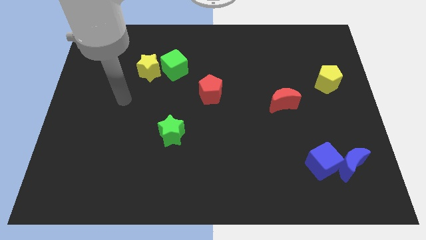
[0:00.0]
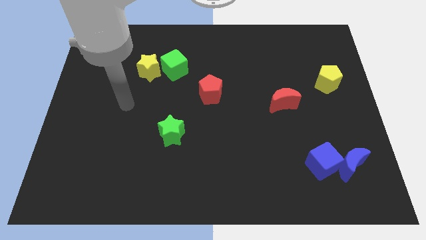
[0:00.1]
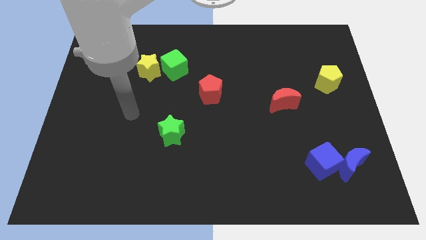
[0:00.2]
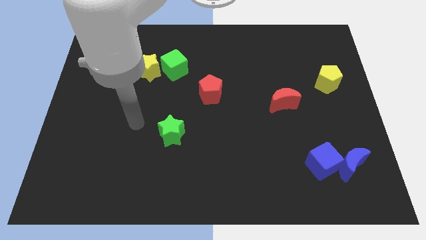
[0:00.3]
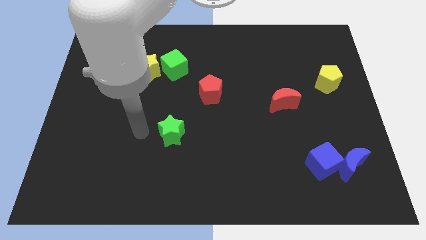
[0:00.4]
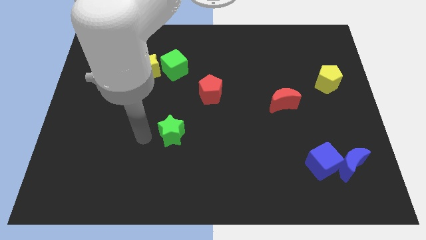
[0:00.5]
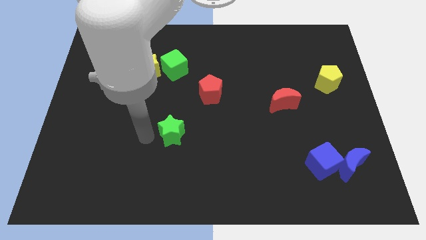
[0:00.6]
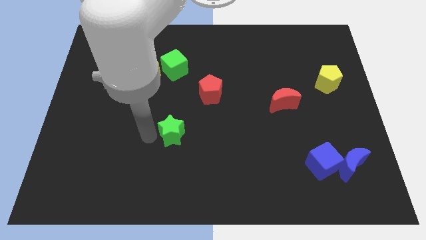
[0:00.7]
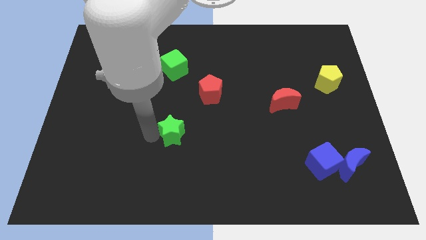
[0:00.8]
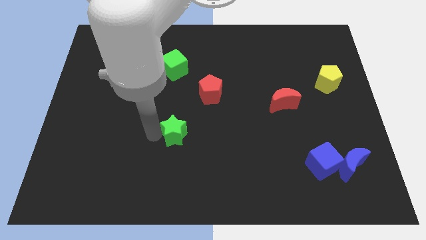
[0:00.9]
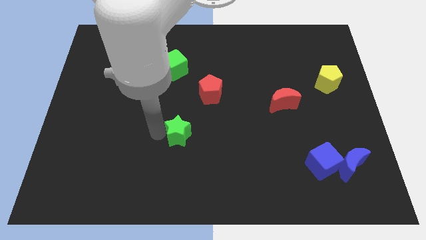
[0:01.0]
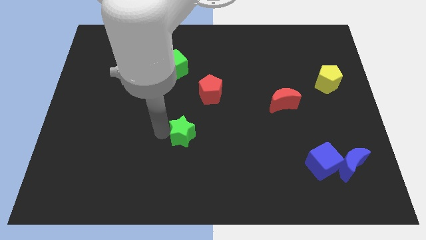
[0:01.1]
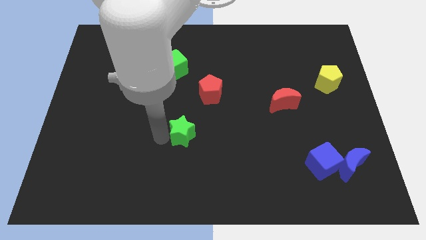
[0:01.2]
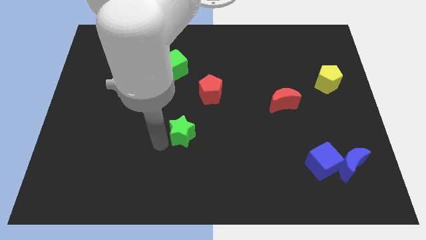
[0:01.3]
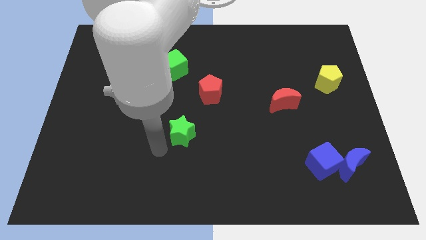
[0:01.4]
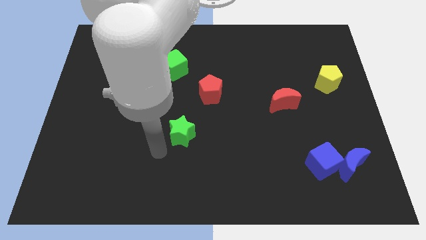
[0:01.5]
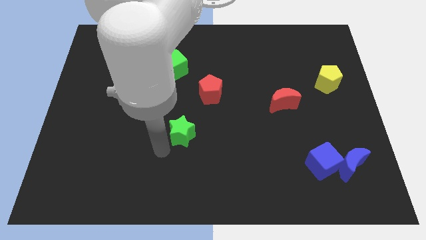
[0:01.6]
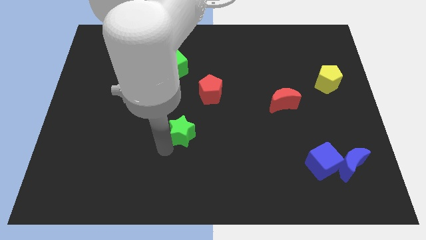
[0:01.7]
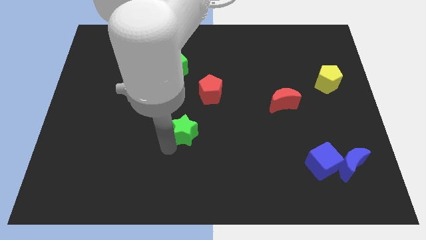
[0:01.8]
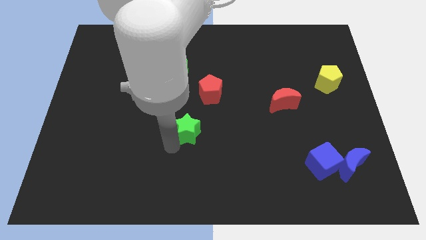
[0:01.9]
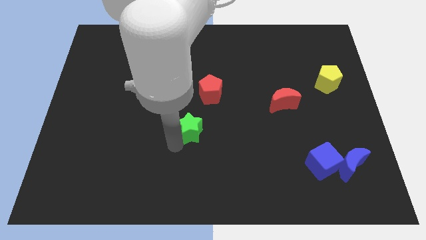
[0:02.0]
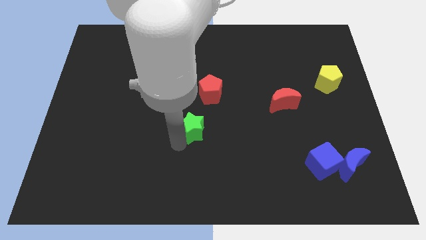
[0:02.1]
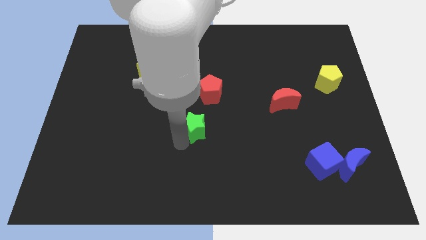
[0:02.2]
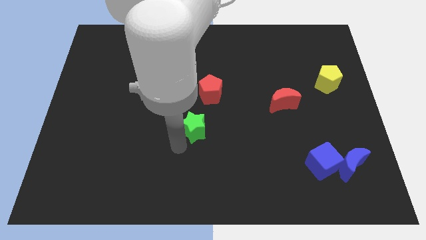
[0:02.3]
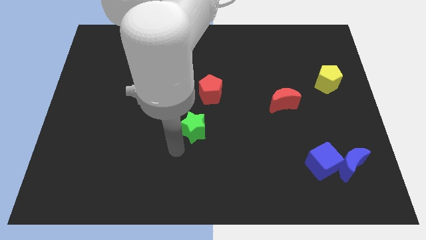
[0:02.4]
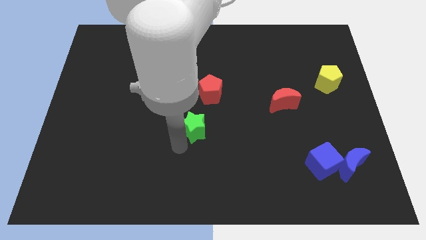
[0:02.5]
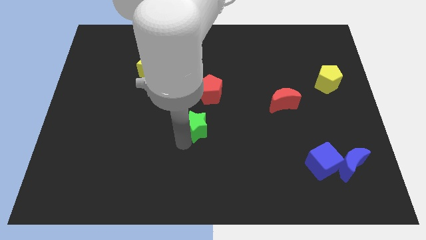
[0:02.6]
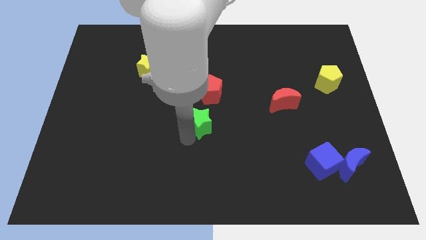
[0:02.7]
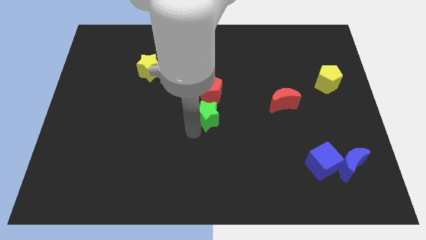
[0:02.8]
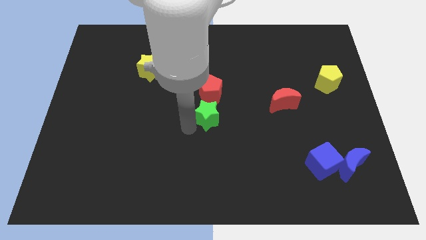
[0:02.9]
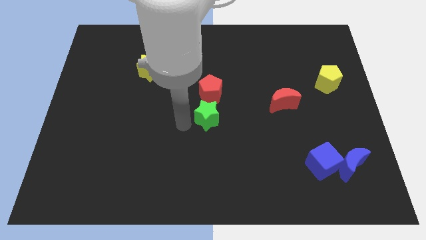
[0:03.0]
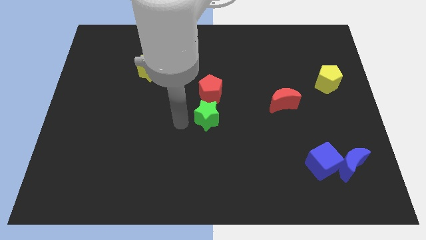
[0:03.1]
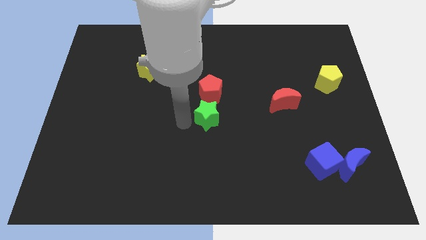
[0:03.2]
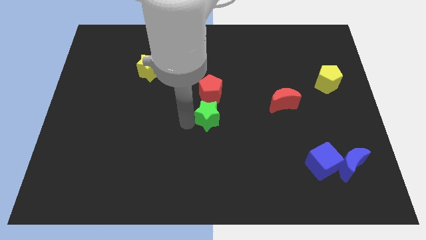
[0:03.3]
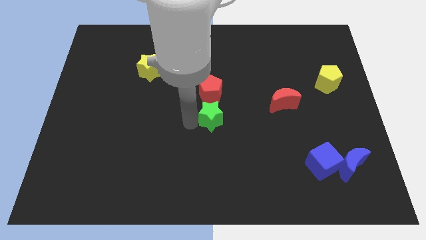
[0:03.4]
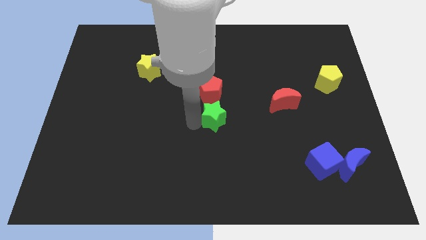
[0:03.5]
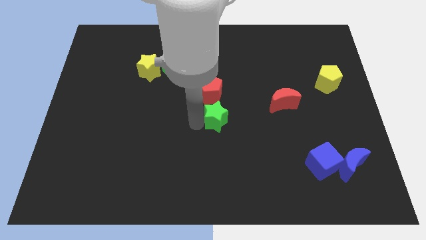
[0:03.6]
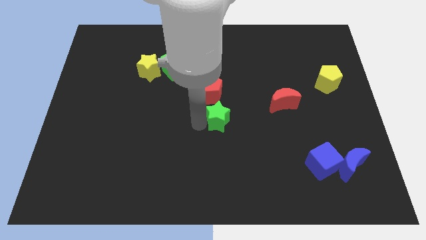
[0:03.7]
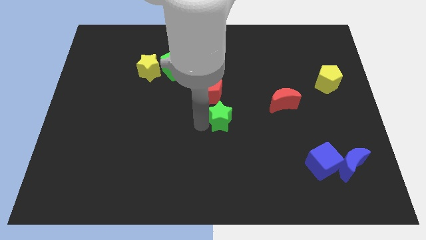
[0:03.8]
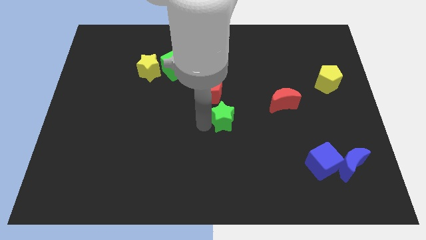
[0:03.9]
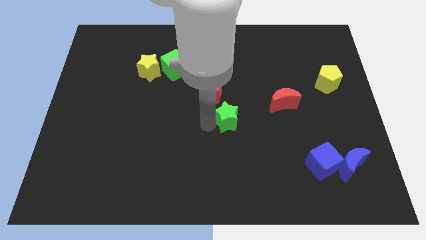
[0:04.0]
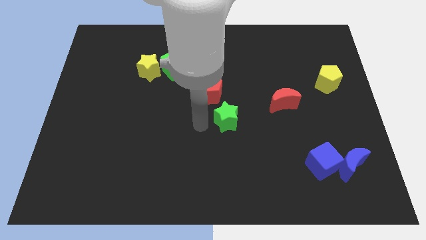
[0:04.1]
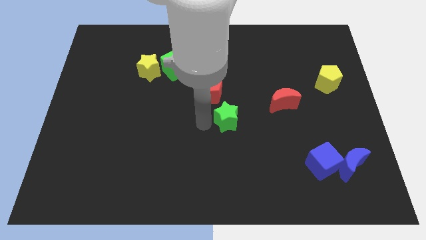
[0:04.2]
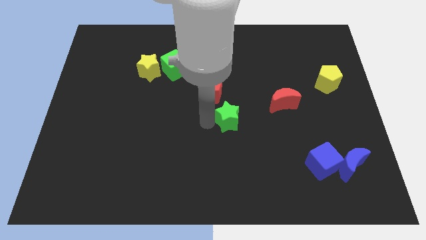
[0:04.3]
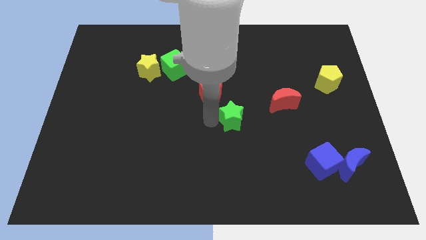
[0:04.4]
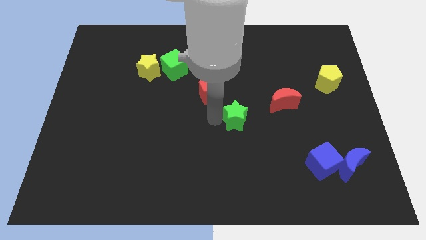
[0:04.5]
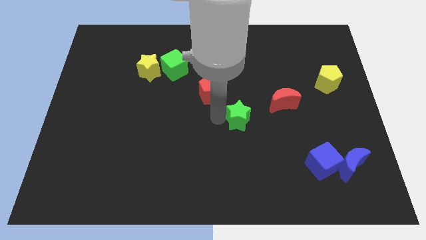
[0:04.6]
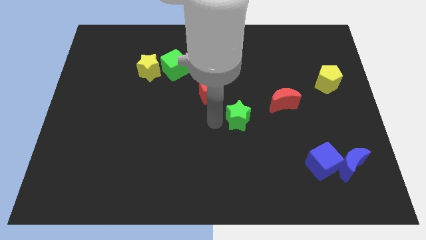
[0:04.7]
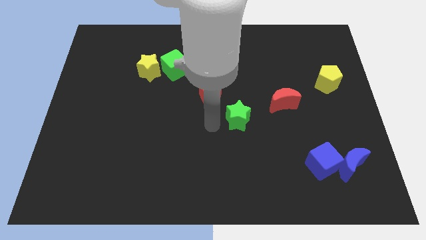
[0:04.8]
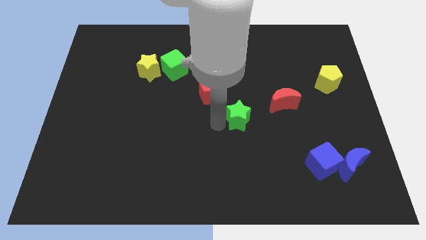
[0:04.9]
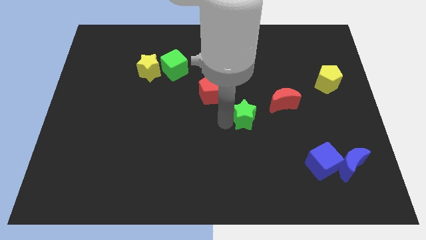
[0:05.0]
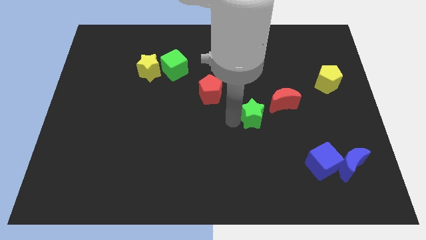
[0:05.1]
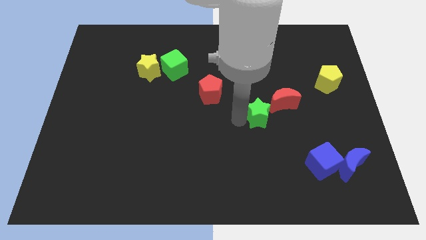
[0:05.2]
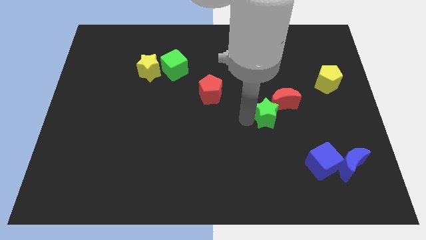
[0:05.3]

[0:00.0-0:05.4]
put the green star close to the red moon

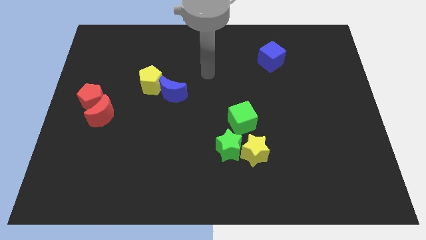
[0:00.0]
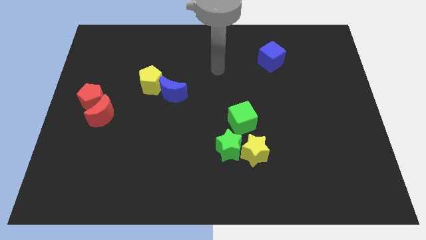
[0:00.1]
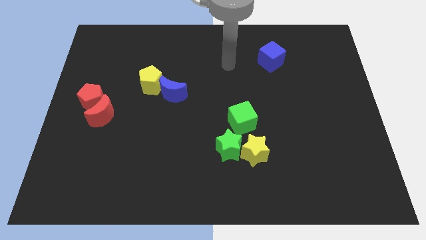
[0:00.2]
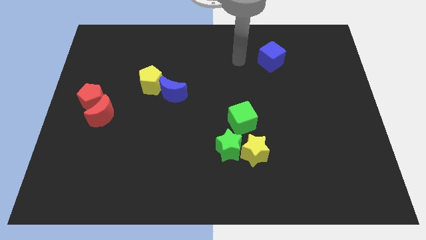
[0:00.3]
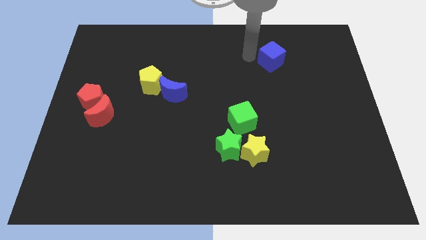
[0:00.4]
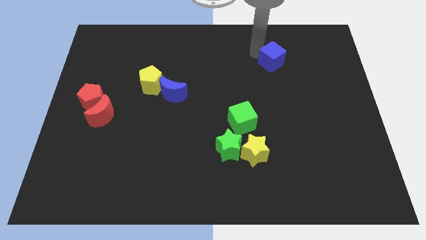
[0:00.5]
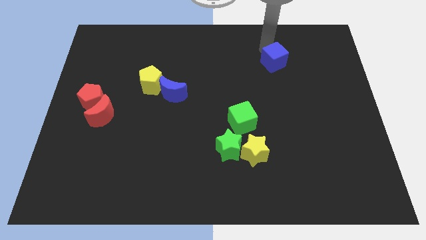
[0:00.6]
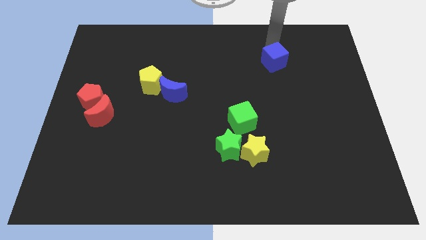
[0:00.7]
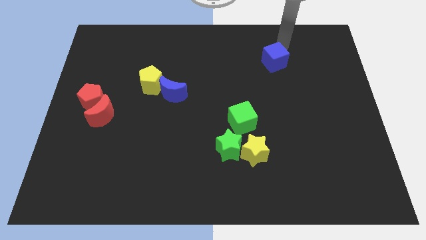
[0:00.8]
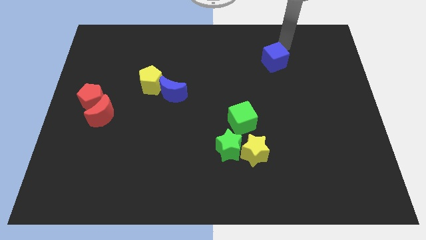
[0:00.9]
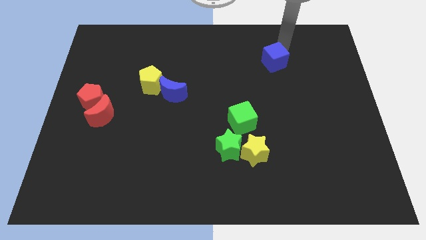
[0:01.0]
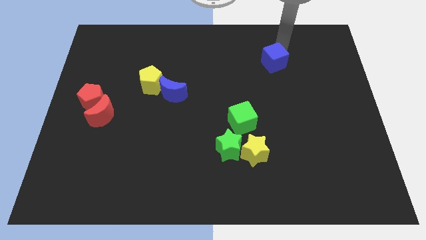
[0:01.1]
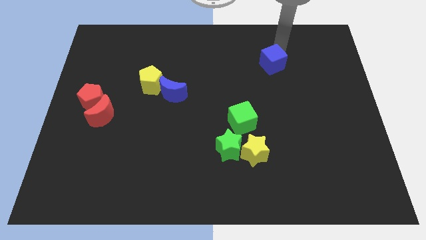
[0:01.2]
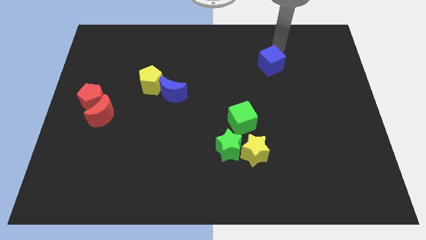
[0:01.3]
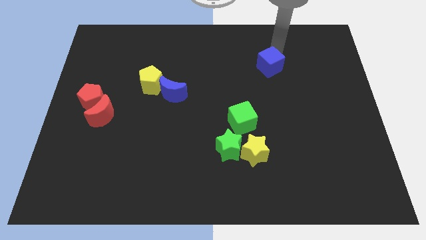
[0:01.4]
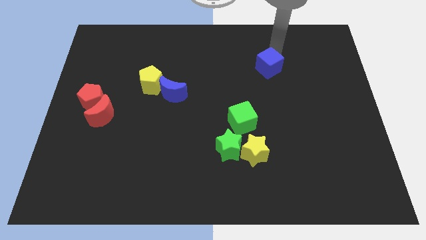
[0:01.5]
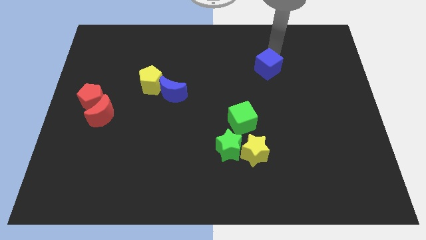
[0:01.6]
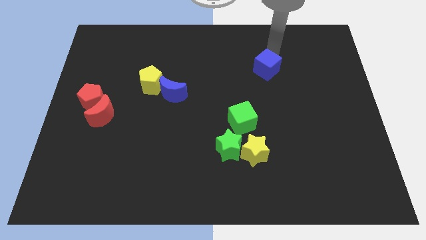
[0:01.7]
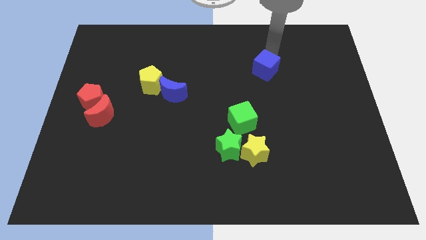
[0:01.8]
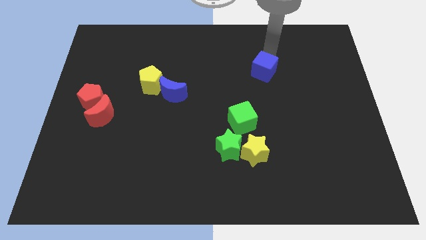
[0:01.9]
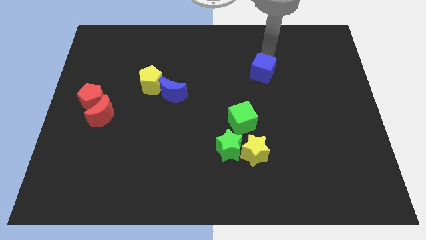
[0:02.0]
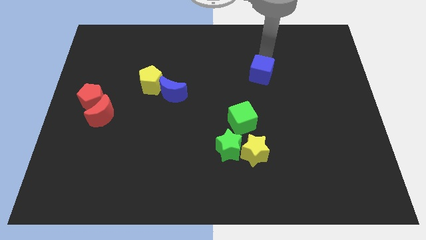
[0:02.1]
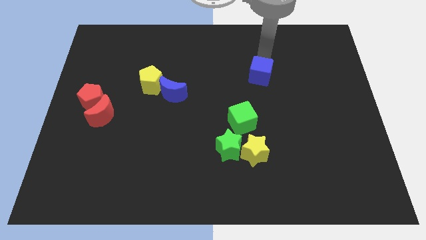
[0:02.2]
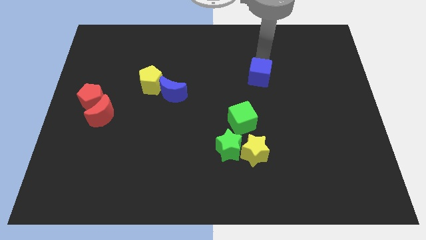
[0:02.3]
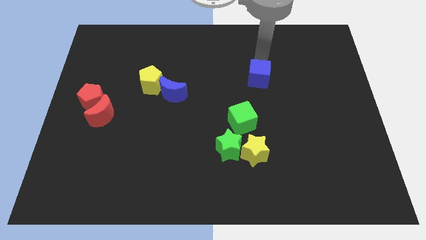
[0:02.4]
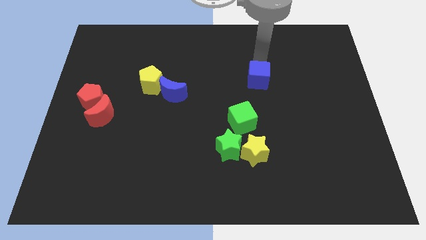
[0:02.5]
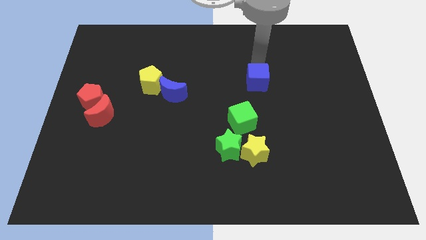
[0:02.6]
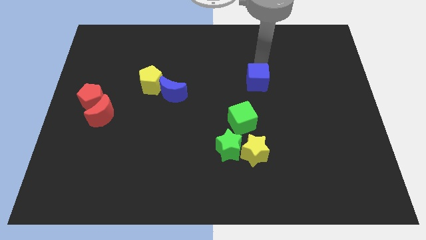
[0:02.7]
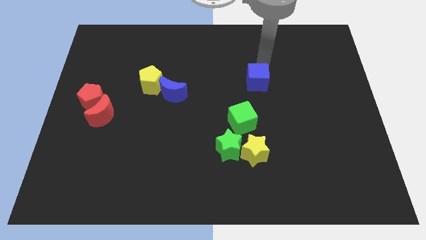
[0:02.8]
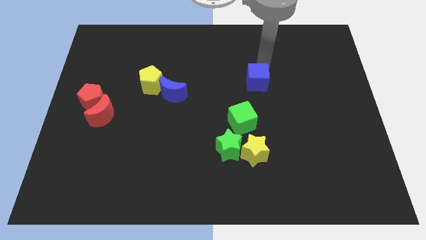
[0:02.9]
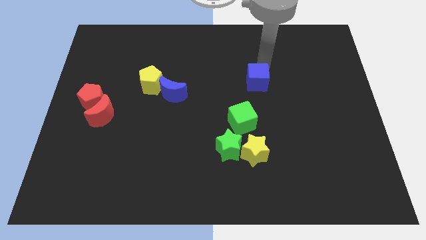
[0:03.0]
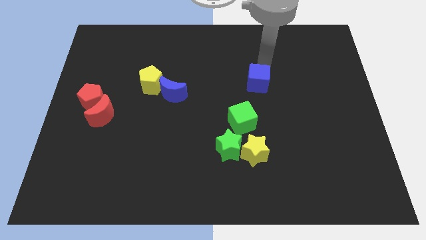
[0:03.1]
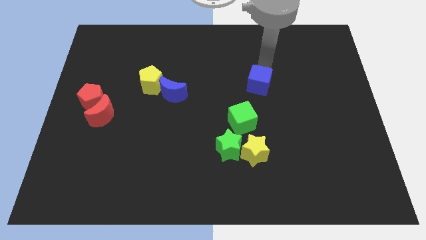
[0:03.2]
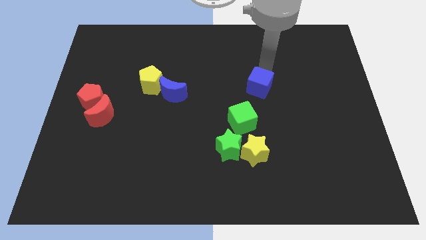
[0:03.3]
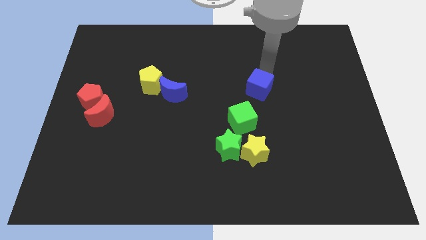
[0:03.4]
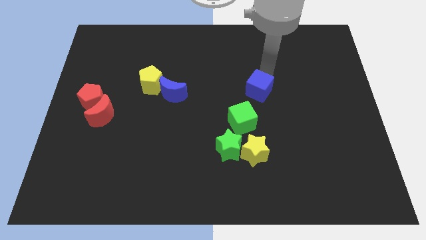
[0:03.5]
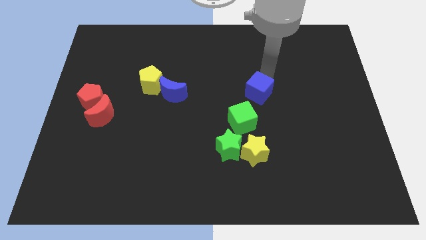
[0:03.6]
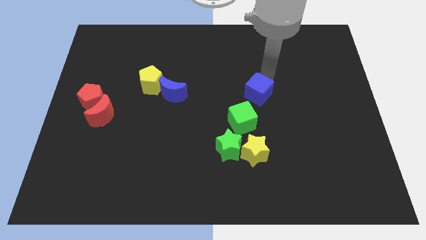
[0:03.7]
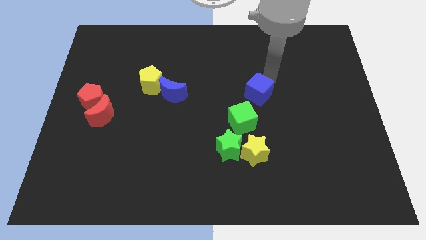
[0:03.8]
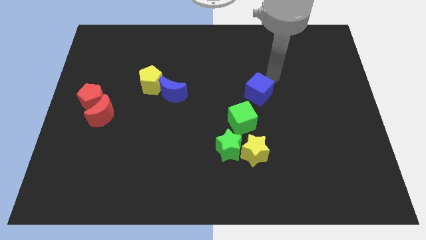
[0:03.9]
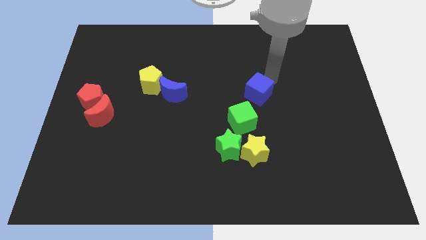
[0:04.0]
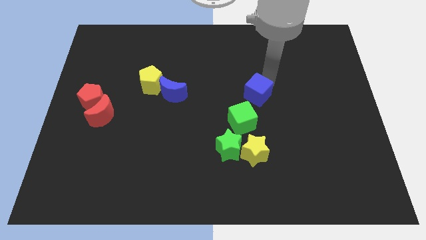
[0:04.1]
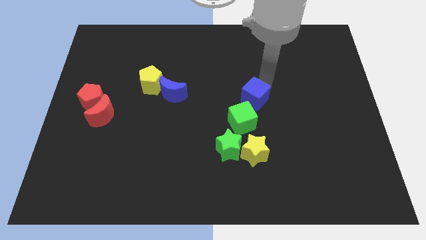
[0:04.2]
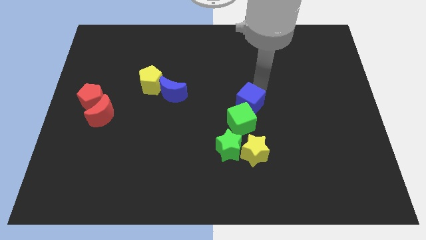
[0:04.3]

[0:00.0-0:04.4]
put the blue cube close to the green cube
